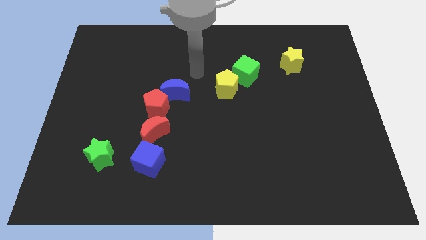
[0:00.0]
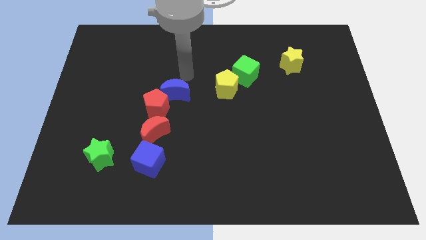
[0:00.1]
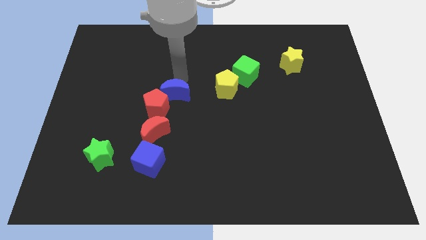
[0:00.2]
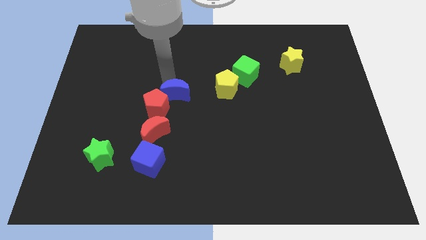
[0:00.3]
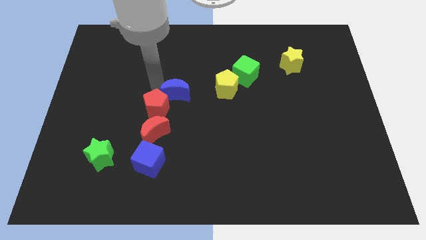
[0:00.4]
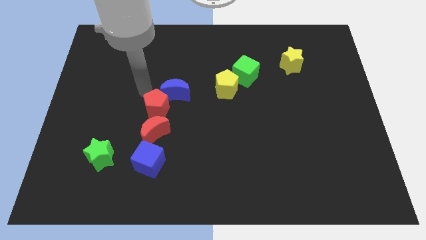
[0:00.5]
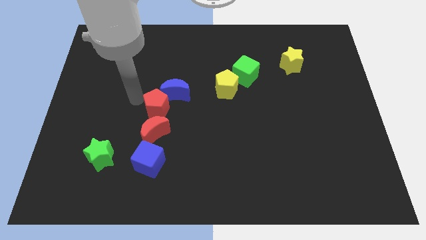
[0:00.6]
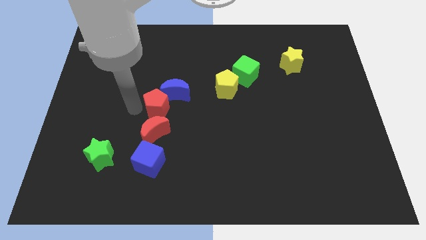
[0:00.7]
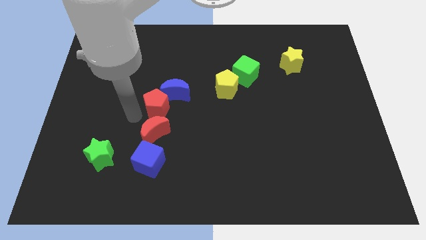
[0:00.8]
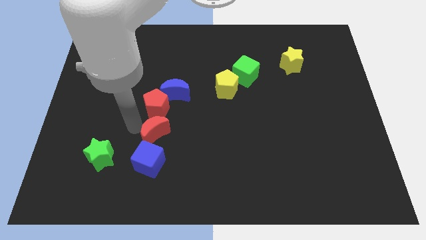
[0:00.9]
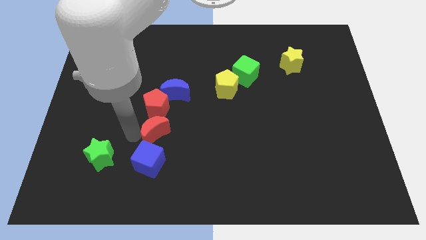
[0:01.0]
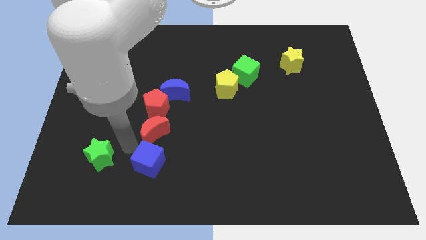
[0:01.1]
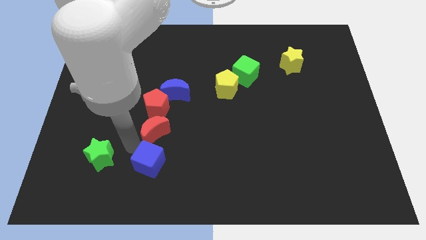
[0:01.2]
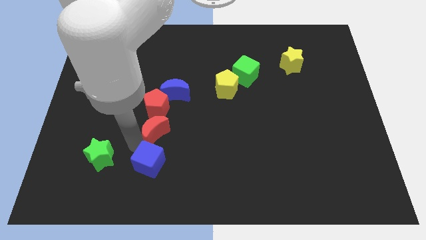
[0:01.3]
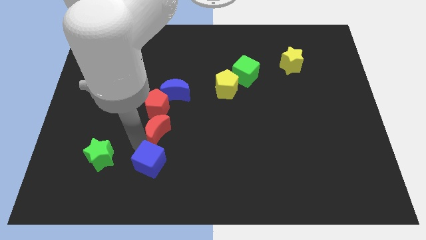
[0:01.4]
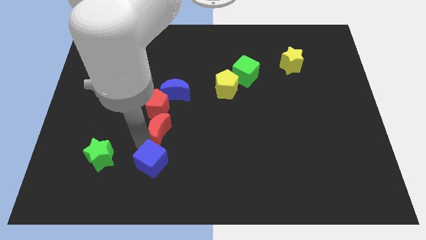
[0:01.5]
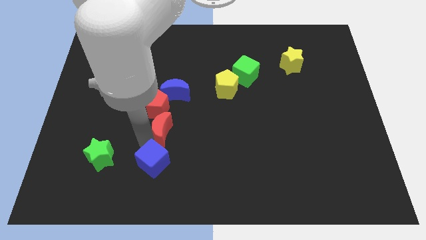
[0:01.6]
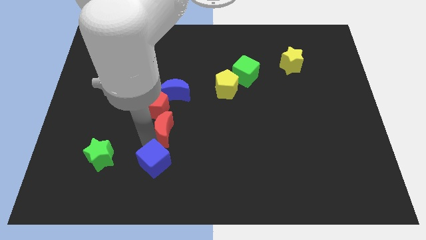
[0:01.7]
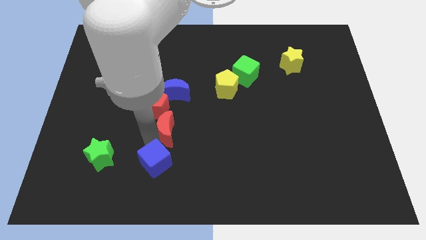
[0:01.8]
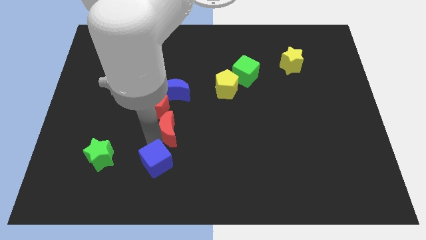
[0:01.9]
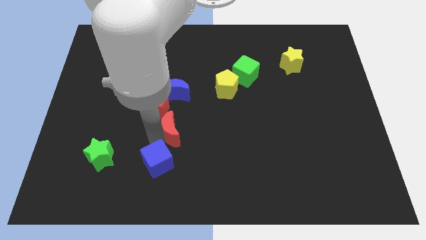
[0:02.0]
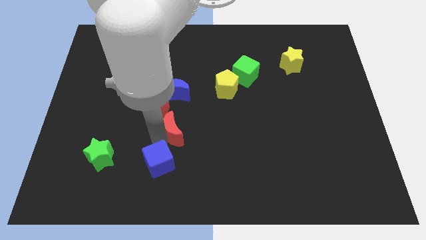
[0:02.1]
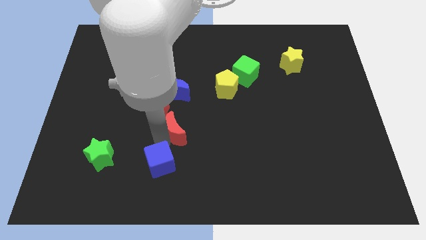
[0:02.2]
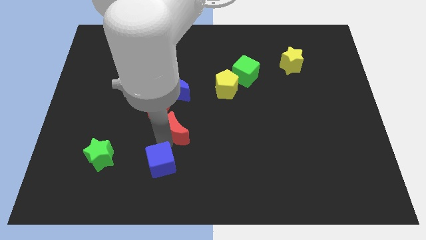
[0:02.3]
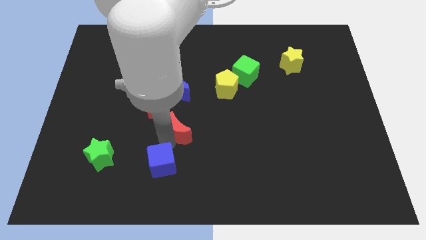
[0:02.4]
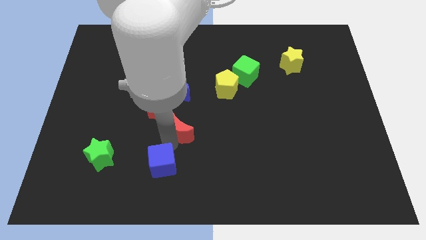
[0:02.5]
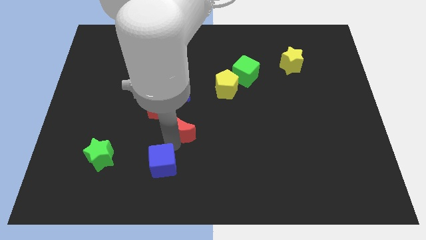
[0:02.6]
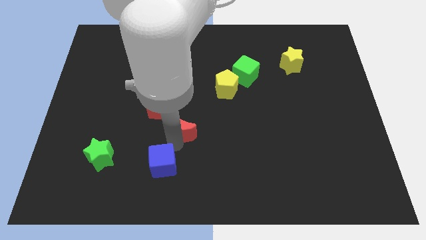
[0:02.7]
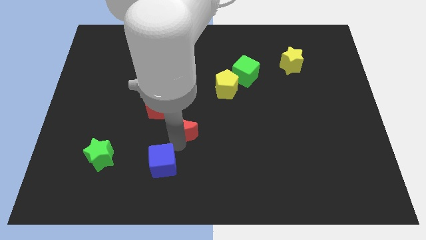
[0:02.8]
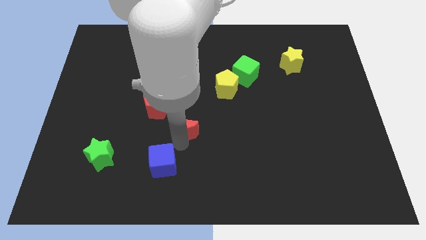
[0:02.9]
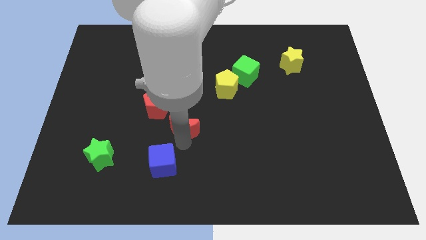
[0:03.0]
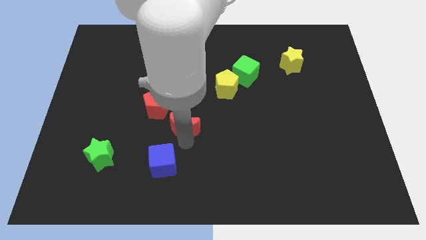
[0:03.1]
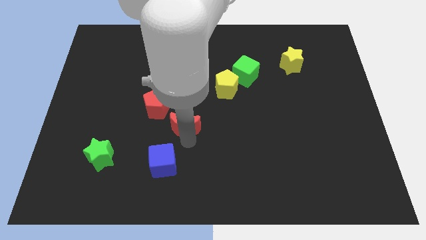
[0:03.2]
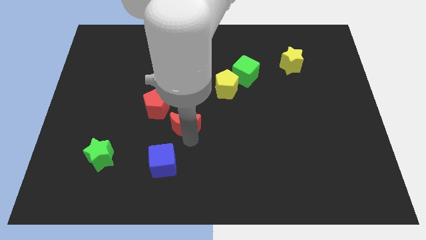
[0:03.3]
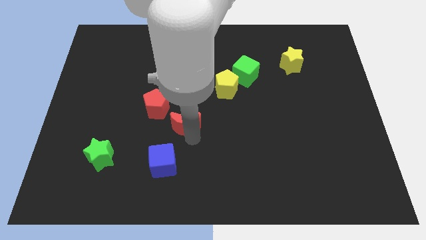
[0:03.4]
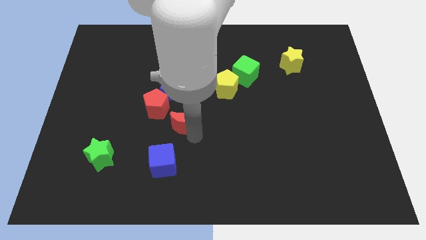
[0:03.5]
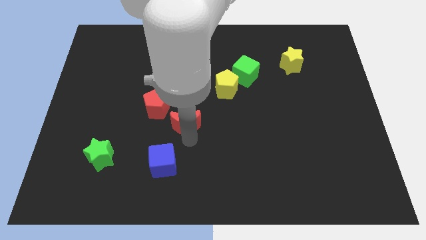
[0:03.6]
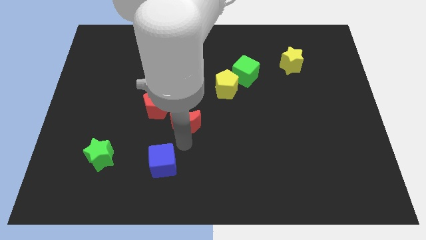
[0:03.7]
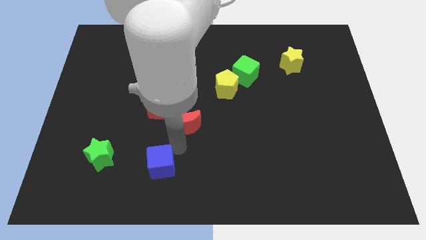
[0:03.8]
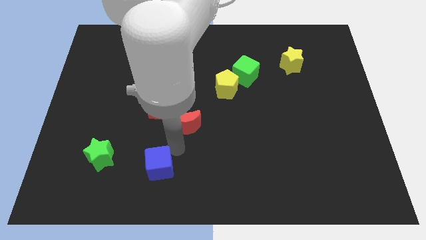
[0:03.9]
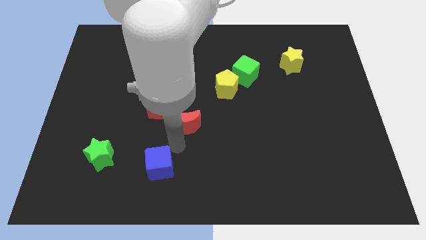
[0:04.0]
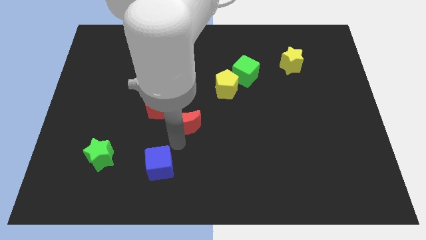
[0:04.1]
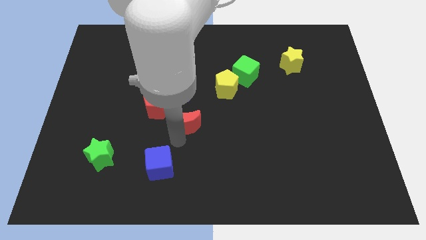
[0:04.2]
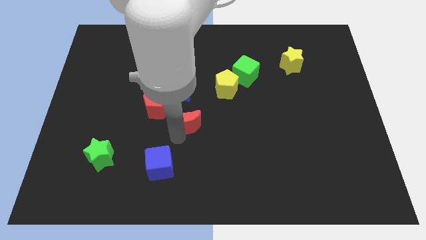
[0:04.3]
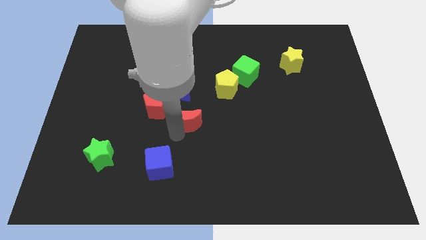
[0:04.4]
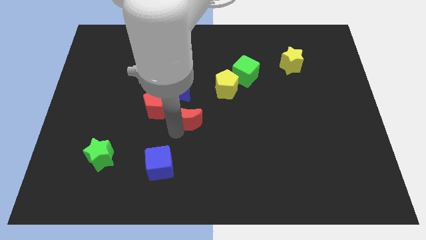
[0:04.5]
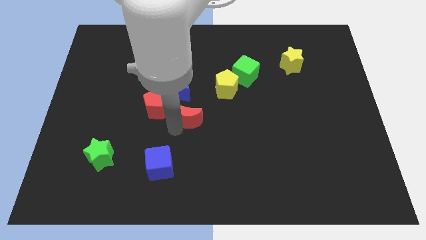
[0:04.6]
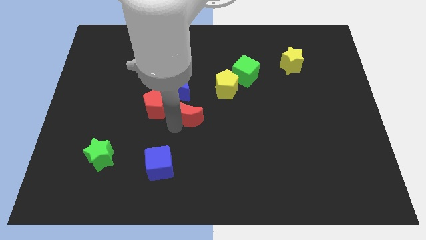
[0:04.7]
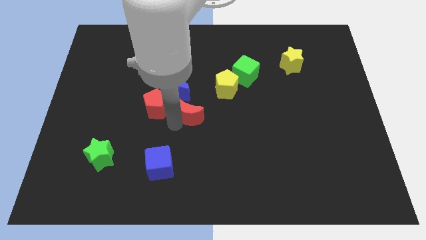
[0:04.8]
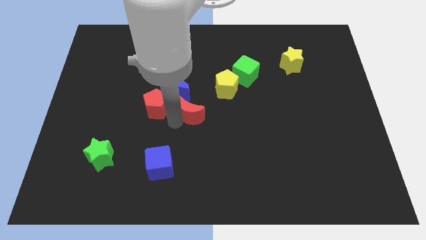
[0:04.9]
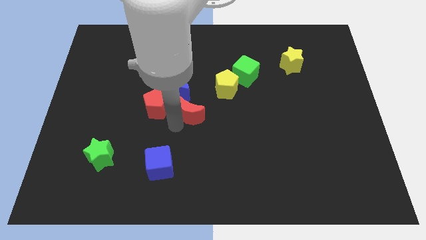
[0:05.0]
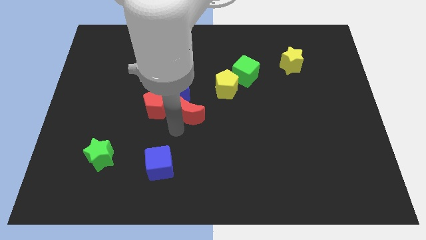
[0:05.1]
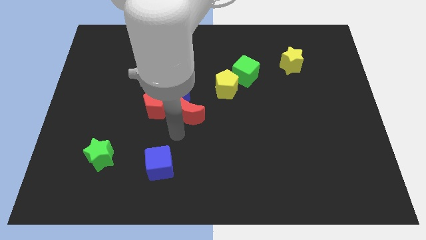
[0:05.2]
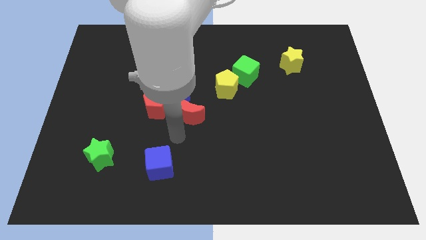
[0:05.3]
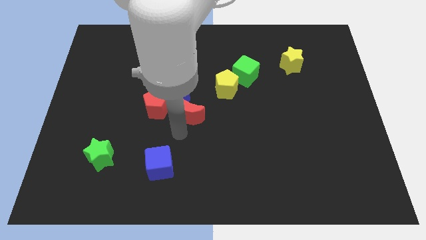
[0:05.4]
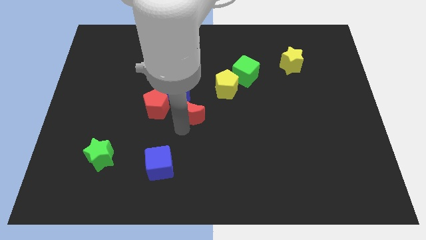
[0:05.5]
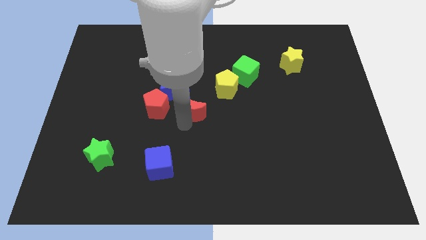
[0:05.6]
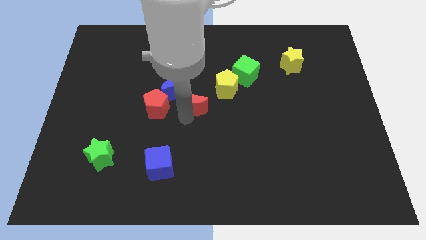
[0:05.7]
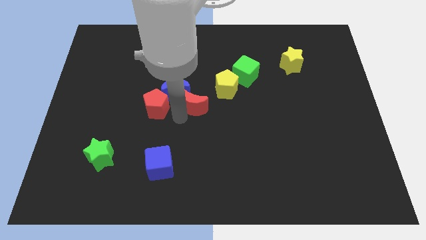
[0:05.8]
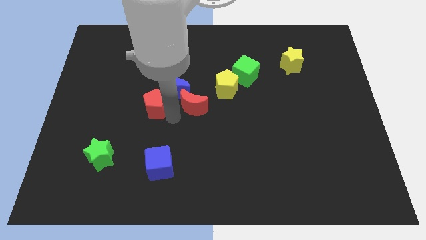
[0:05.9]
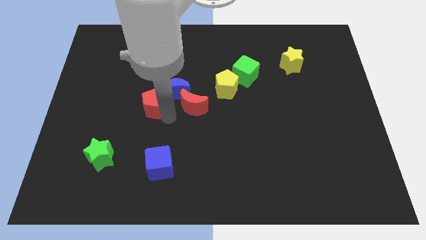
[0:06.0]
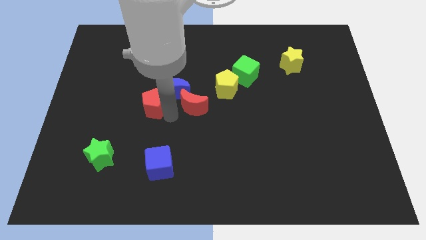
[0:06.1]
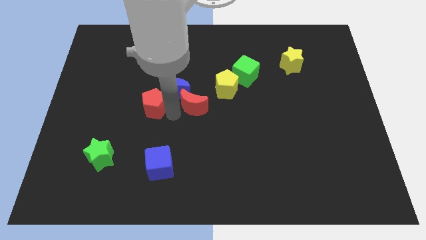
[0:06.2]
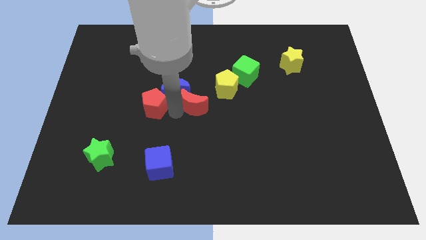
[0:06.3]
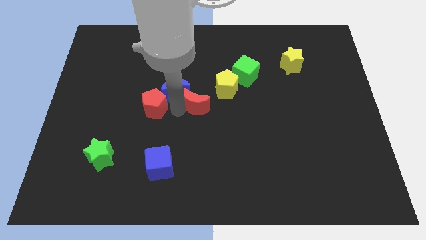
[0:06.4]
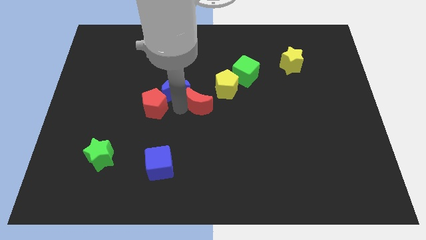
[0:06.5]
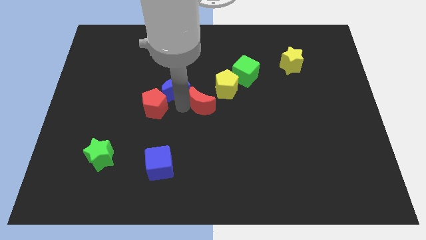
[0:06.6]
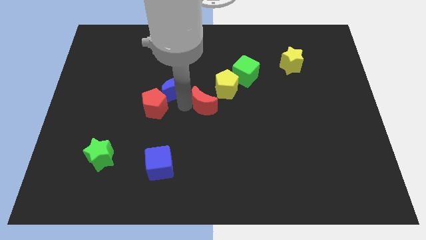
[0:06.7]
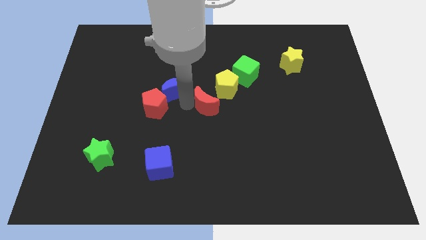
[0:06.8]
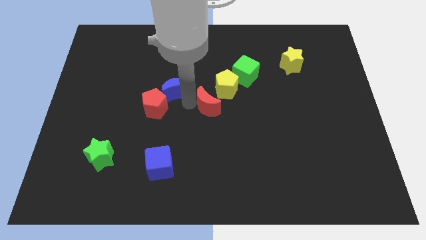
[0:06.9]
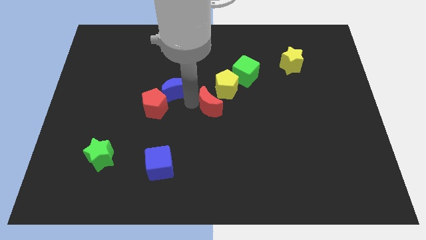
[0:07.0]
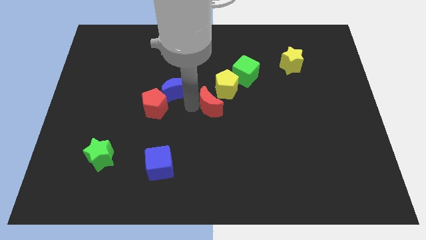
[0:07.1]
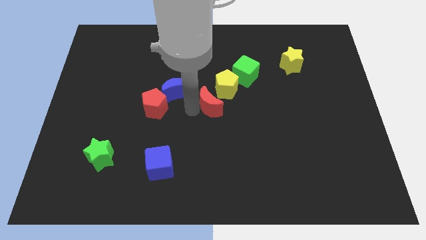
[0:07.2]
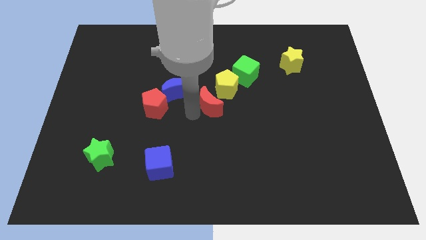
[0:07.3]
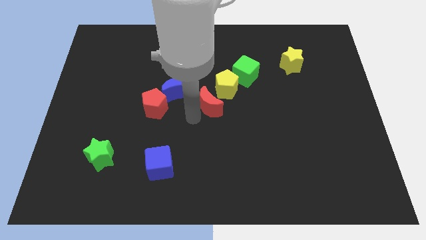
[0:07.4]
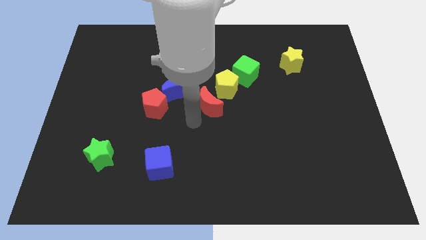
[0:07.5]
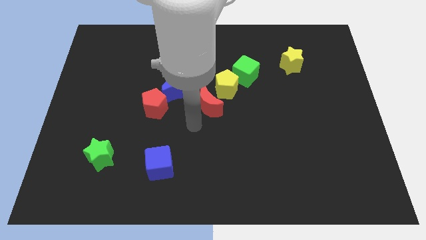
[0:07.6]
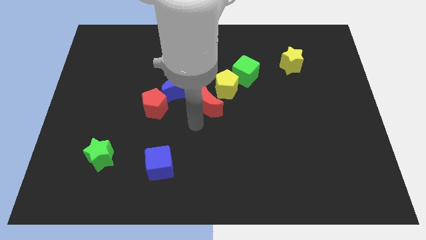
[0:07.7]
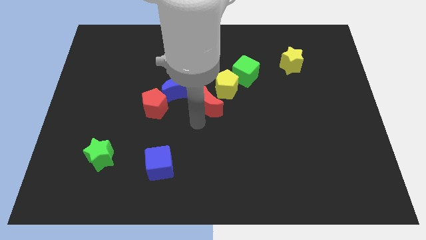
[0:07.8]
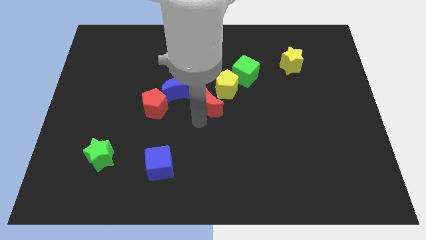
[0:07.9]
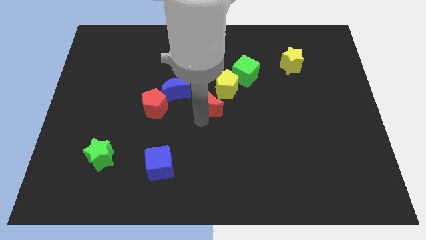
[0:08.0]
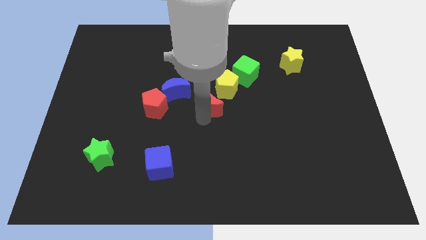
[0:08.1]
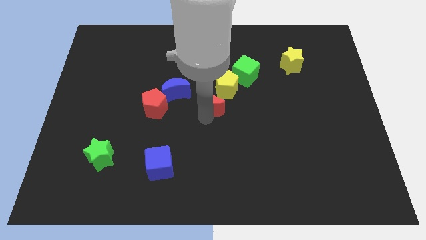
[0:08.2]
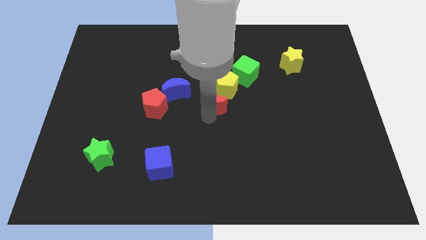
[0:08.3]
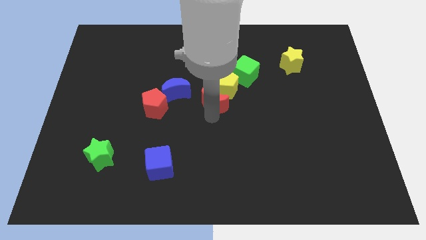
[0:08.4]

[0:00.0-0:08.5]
put the red moon towards the yellow pentagon
